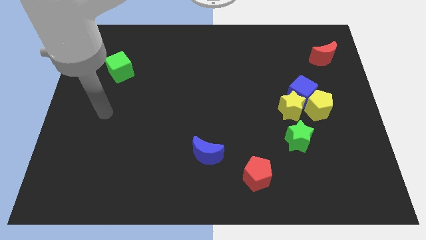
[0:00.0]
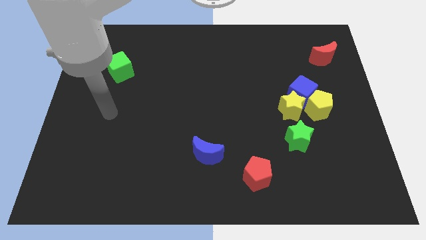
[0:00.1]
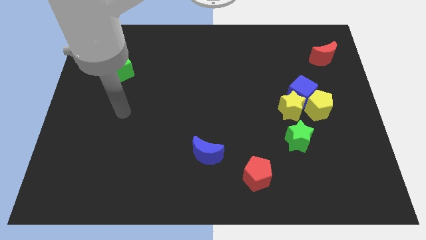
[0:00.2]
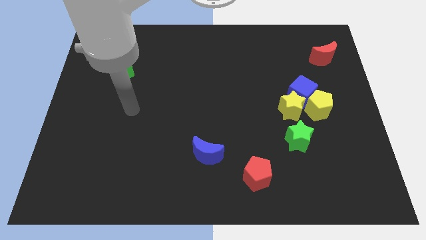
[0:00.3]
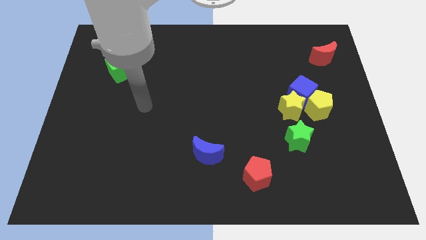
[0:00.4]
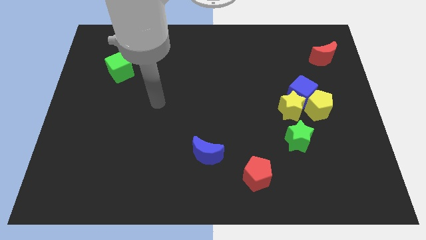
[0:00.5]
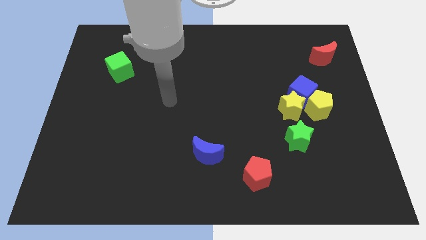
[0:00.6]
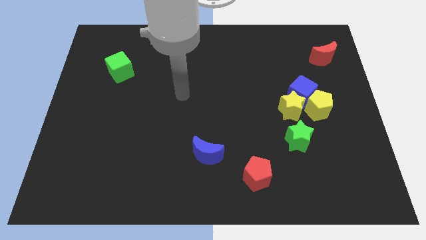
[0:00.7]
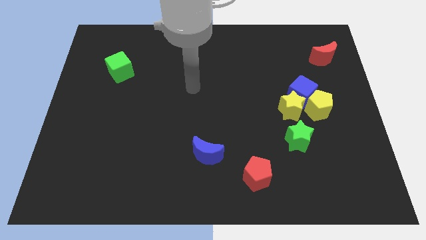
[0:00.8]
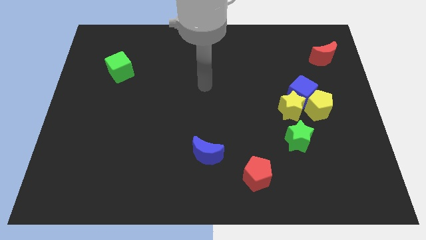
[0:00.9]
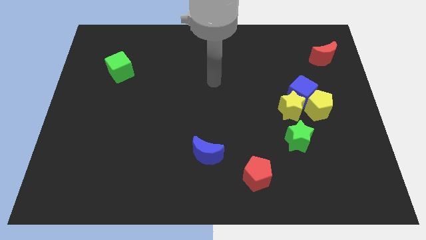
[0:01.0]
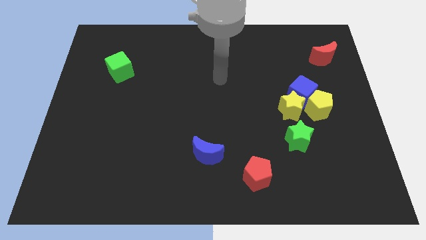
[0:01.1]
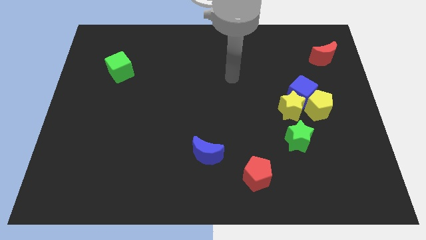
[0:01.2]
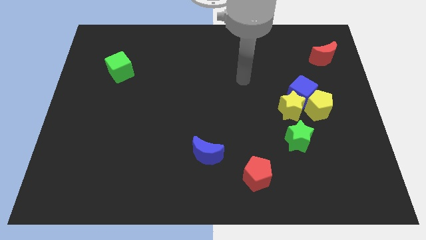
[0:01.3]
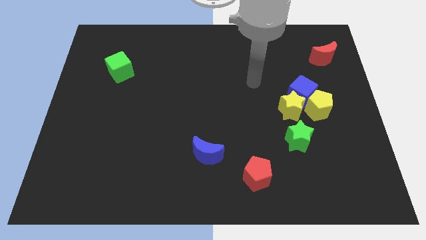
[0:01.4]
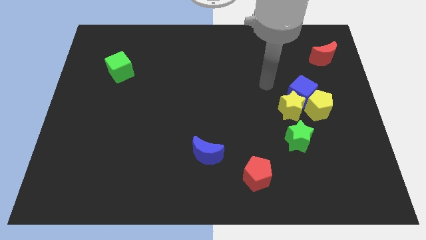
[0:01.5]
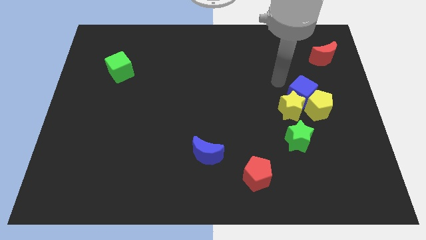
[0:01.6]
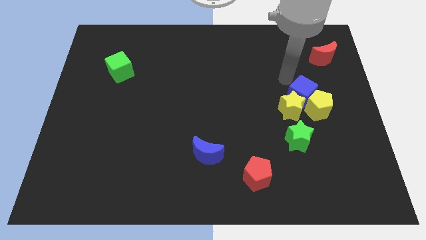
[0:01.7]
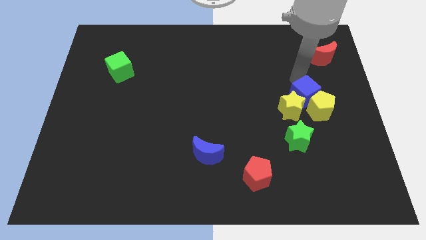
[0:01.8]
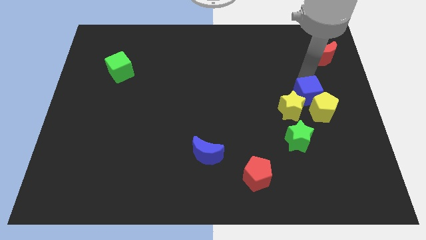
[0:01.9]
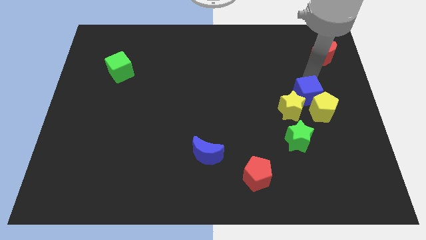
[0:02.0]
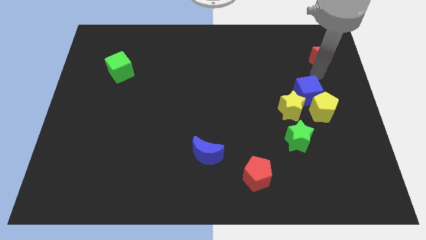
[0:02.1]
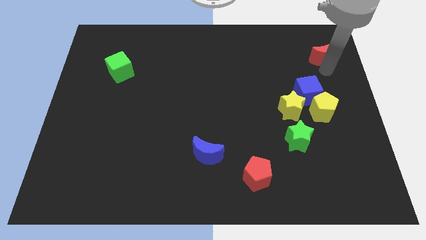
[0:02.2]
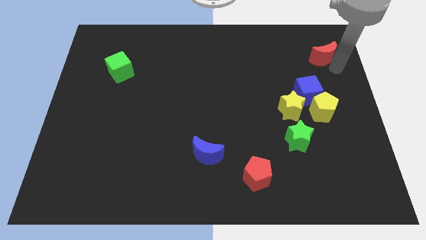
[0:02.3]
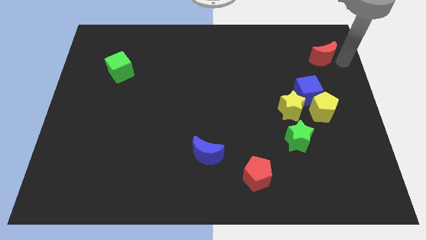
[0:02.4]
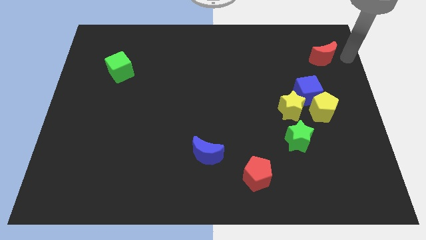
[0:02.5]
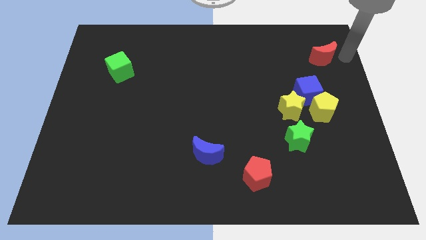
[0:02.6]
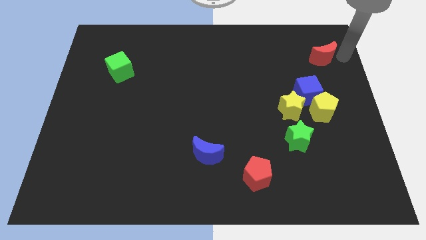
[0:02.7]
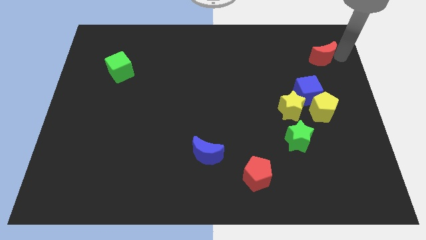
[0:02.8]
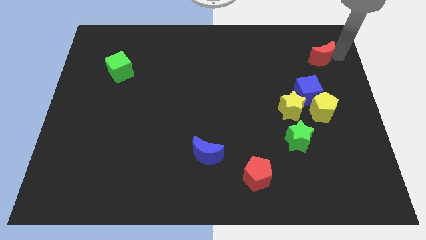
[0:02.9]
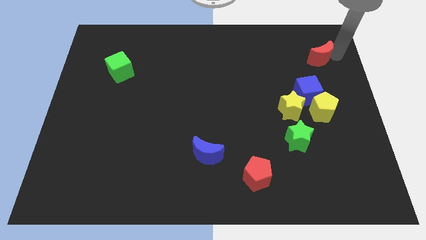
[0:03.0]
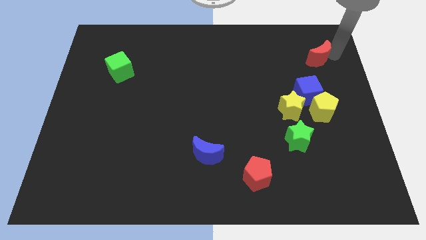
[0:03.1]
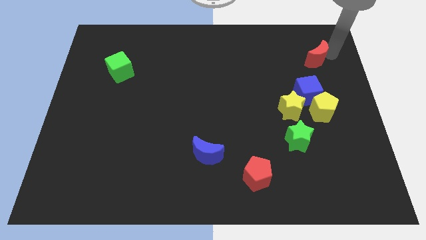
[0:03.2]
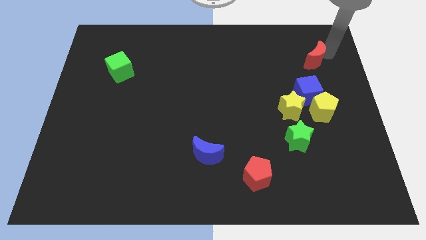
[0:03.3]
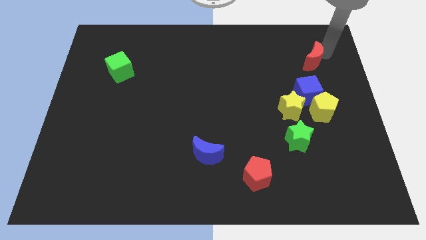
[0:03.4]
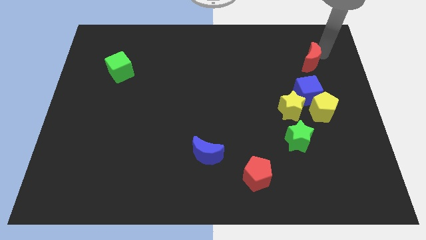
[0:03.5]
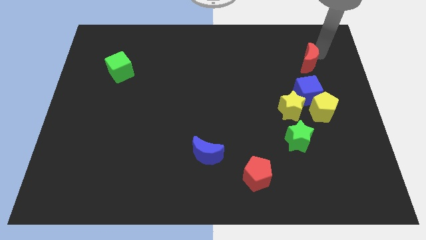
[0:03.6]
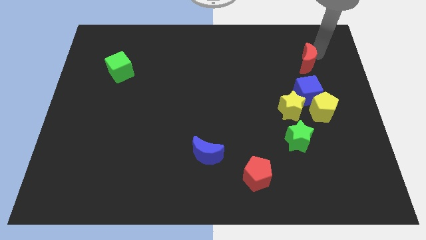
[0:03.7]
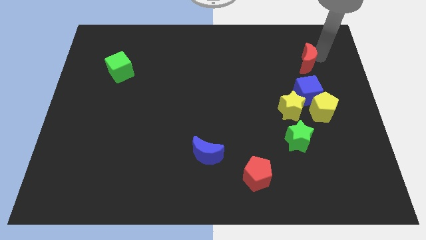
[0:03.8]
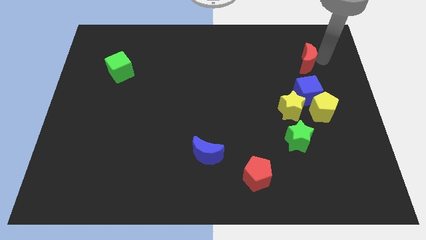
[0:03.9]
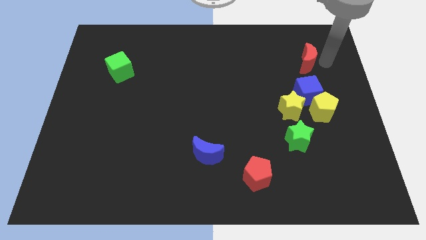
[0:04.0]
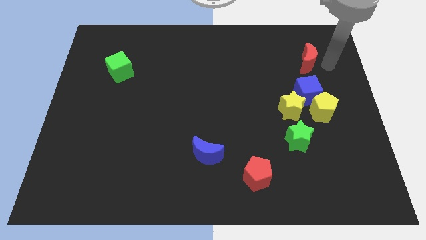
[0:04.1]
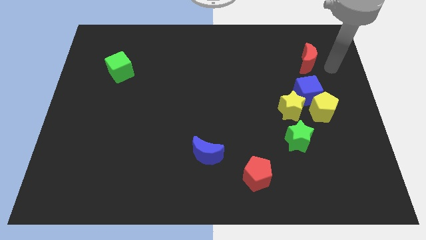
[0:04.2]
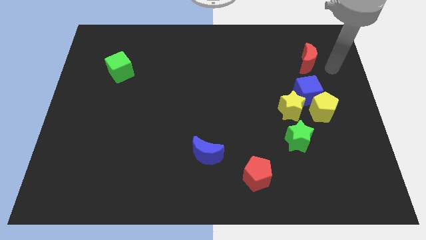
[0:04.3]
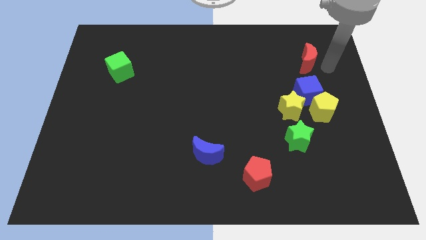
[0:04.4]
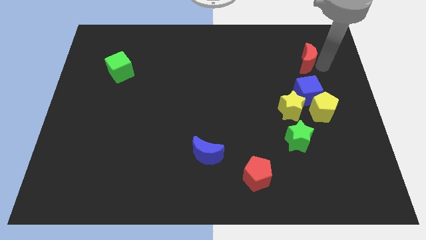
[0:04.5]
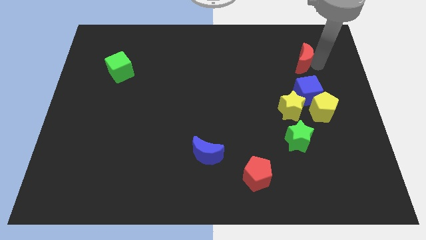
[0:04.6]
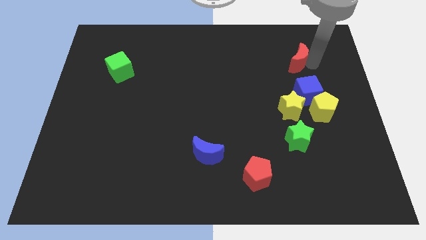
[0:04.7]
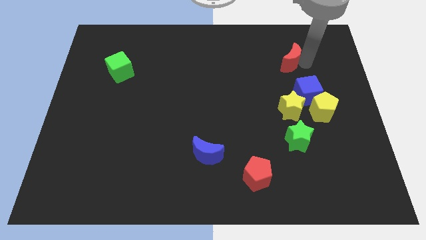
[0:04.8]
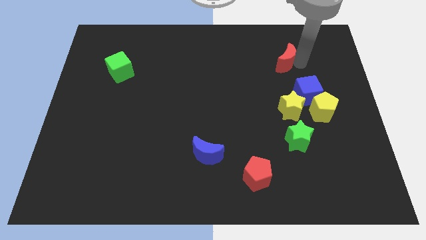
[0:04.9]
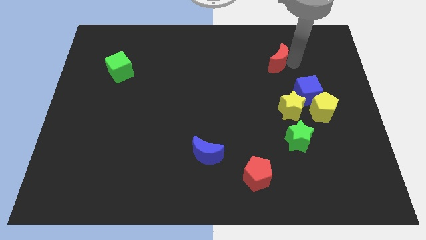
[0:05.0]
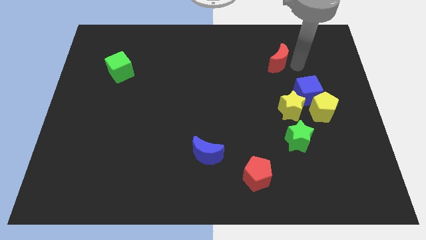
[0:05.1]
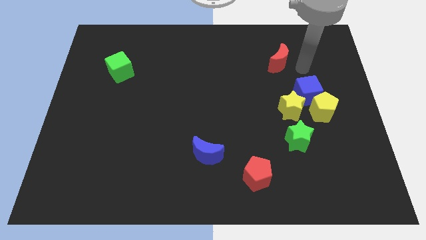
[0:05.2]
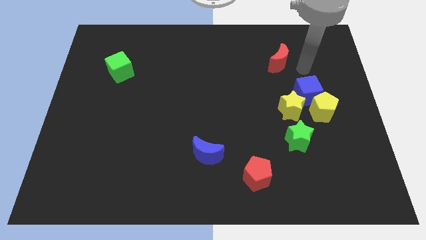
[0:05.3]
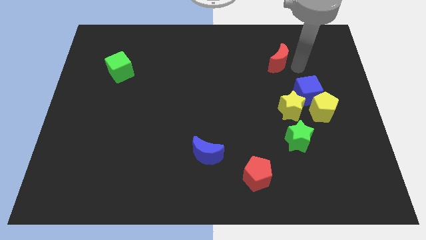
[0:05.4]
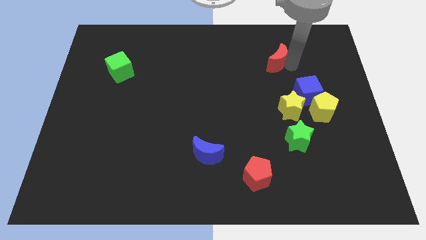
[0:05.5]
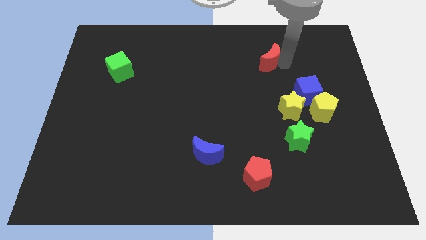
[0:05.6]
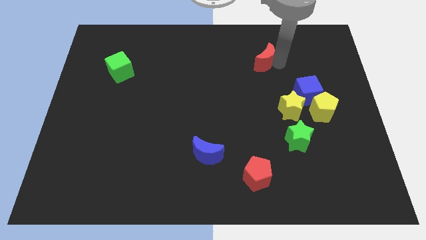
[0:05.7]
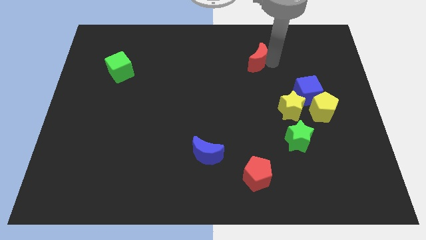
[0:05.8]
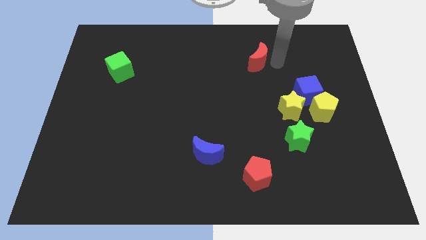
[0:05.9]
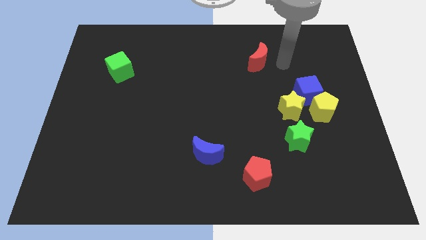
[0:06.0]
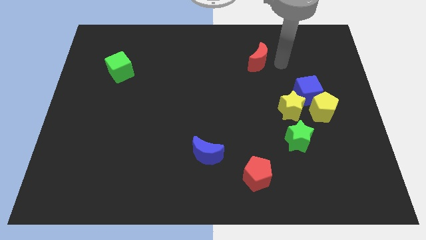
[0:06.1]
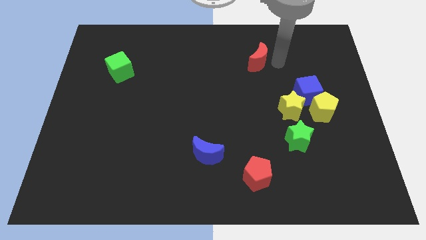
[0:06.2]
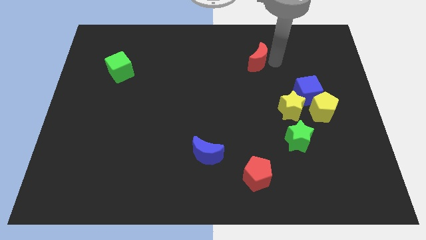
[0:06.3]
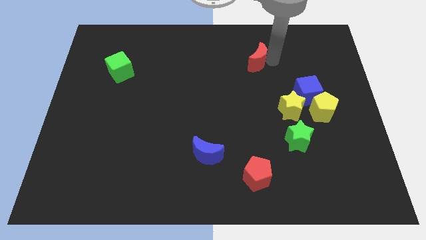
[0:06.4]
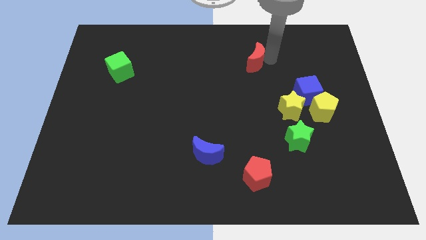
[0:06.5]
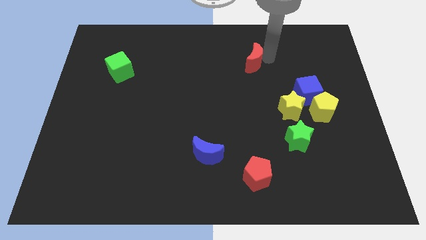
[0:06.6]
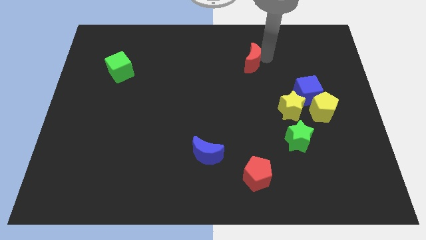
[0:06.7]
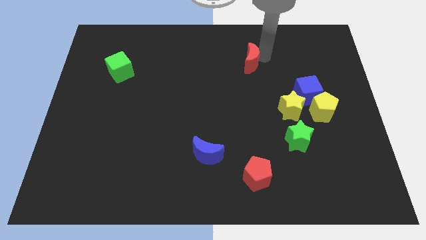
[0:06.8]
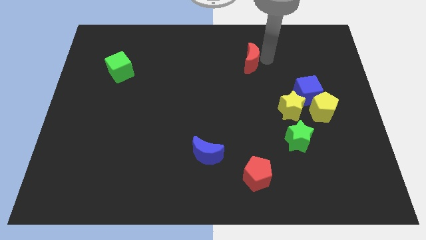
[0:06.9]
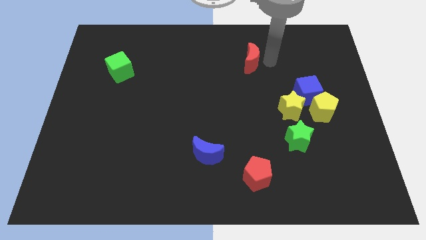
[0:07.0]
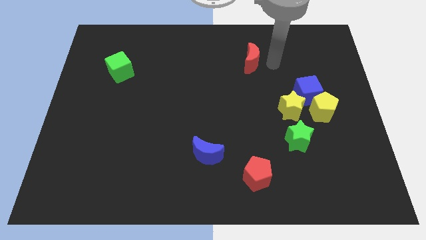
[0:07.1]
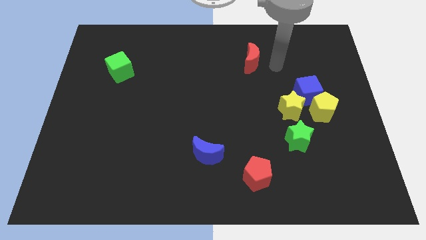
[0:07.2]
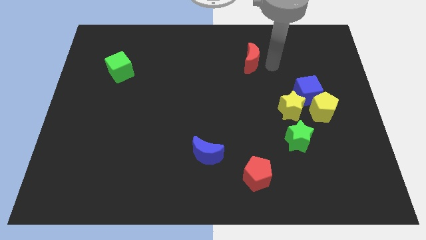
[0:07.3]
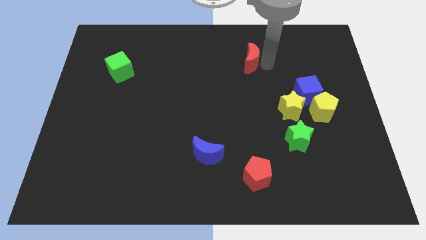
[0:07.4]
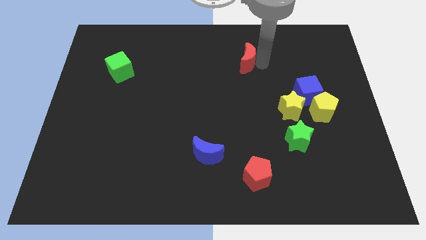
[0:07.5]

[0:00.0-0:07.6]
move the red moon to the left

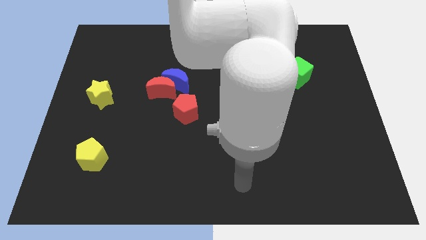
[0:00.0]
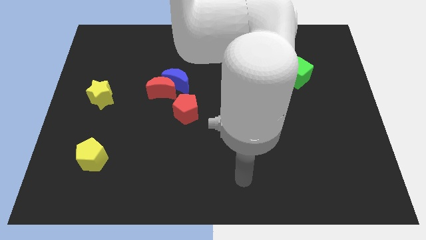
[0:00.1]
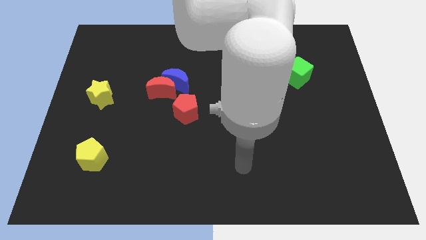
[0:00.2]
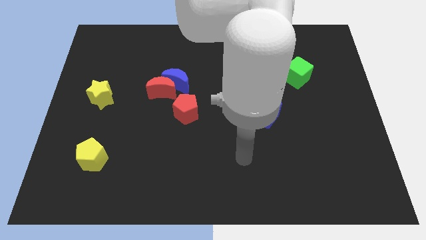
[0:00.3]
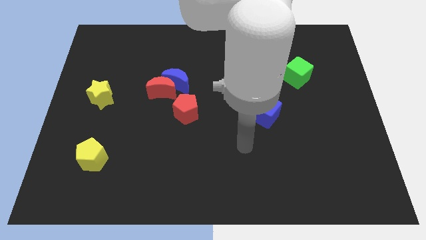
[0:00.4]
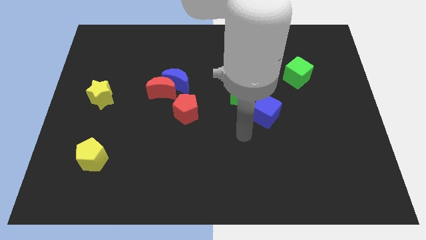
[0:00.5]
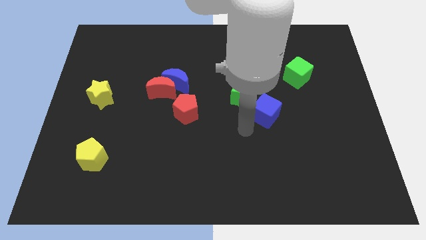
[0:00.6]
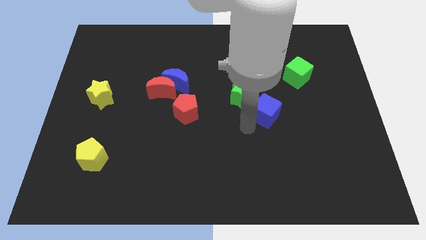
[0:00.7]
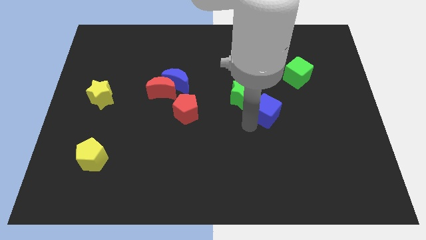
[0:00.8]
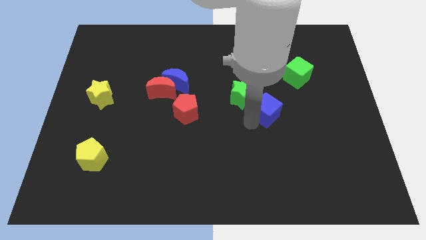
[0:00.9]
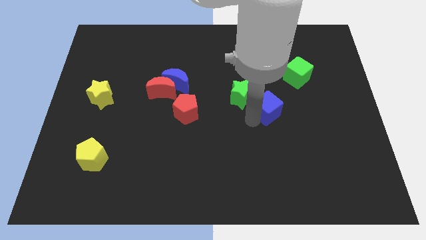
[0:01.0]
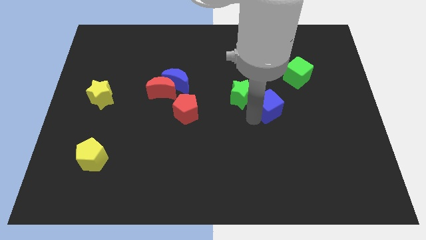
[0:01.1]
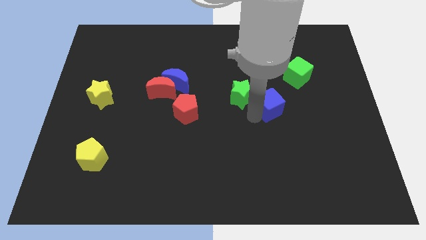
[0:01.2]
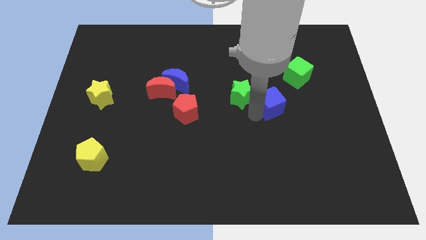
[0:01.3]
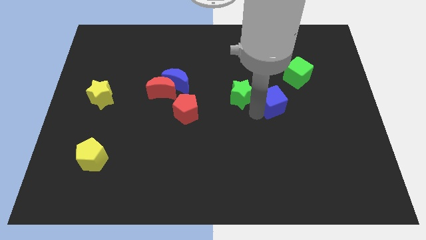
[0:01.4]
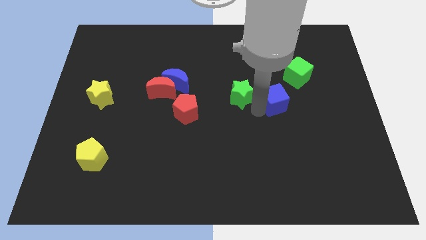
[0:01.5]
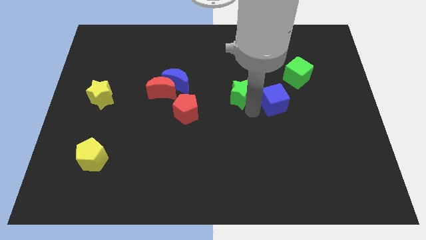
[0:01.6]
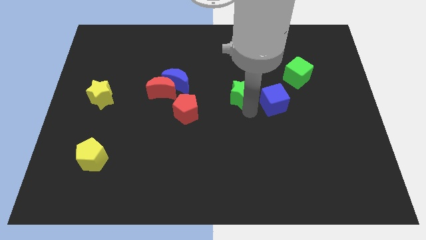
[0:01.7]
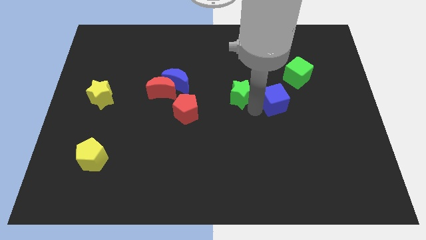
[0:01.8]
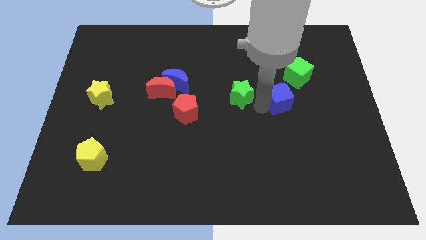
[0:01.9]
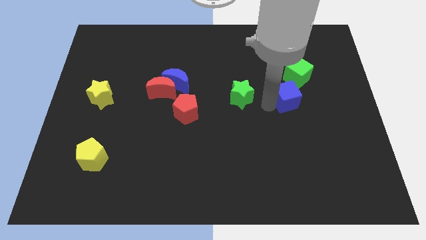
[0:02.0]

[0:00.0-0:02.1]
move the blue cube a little bit upwards and to the right
